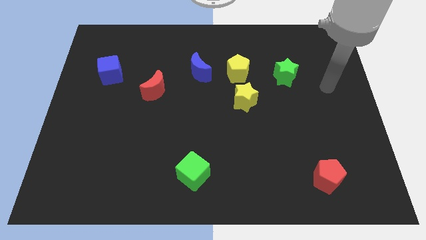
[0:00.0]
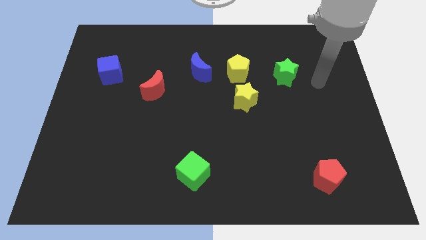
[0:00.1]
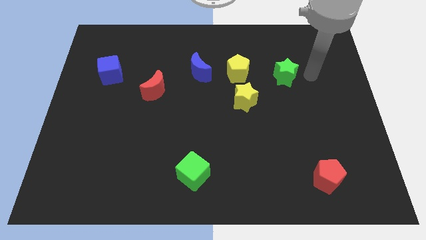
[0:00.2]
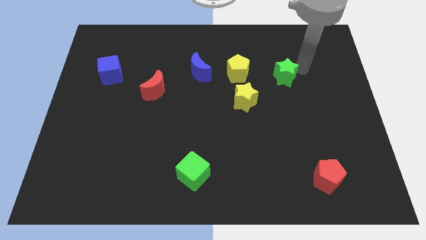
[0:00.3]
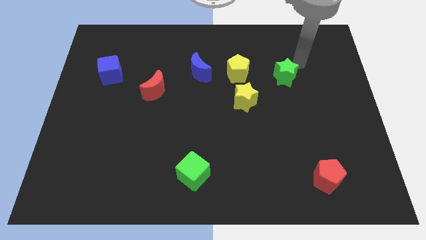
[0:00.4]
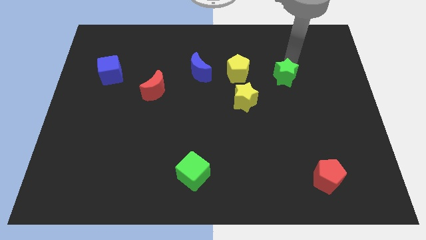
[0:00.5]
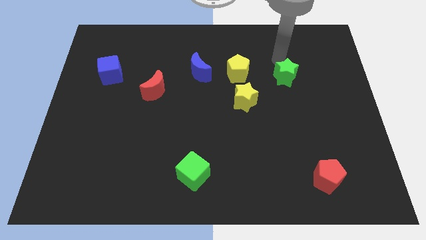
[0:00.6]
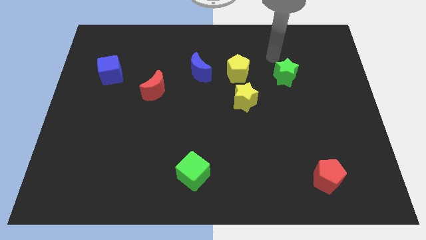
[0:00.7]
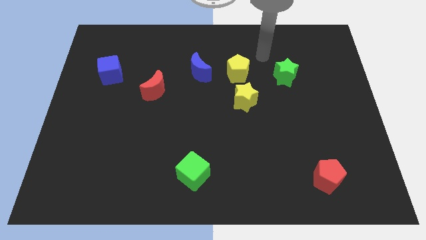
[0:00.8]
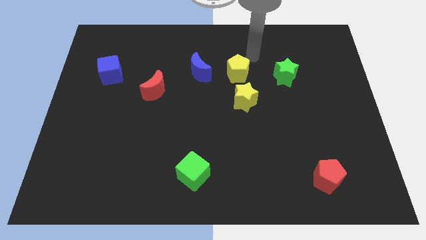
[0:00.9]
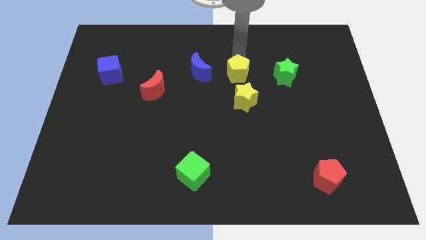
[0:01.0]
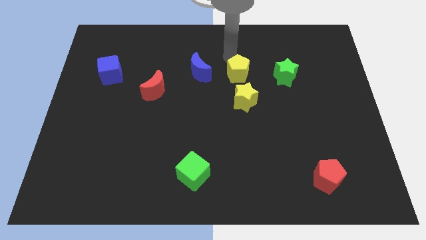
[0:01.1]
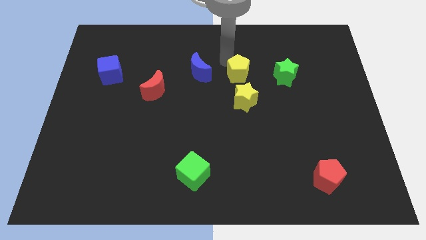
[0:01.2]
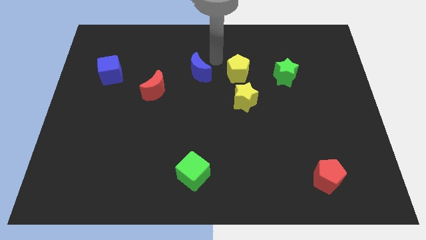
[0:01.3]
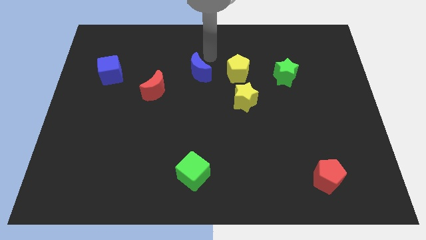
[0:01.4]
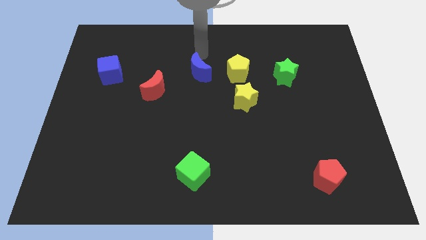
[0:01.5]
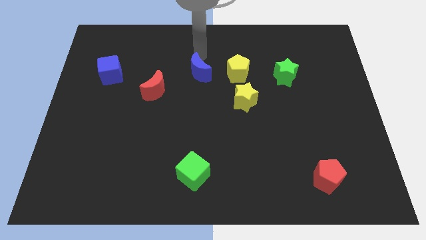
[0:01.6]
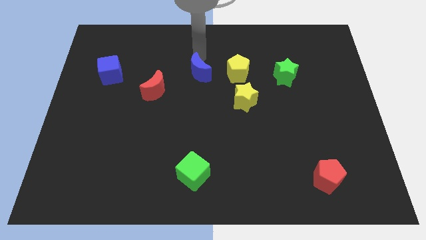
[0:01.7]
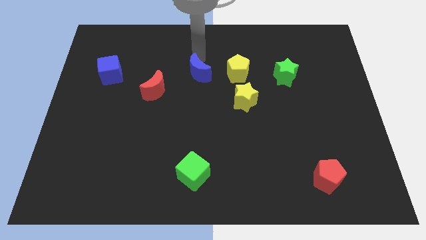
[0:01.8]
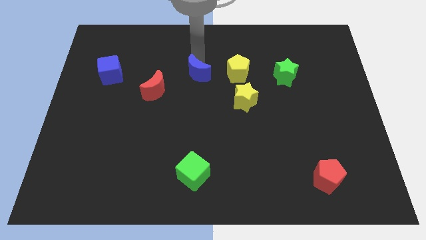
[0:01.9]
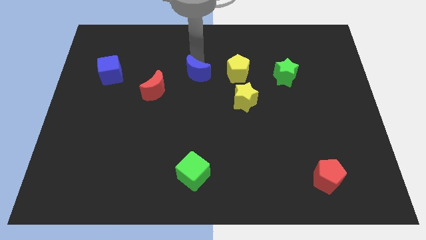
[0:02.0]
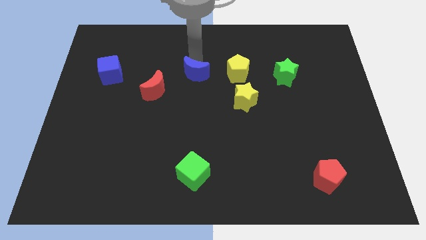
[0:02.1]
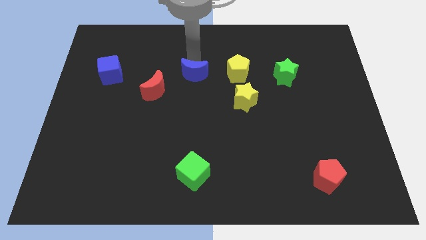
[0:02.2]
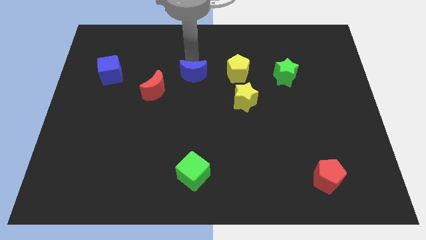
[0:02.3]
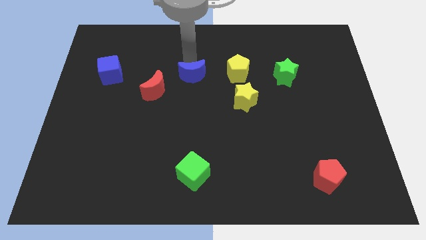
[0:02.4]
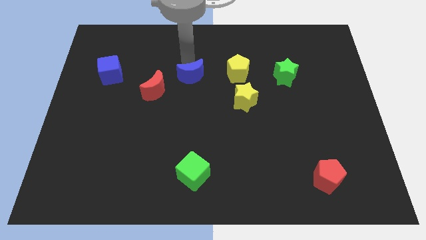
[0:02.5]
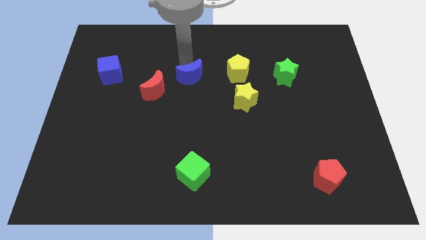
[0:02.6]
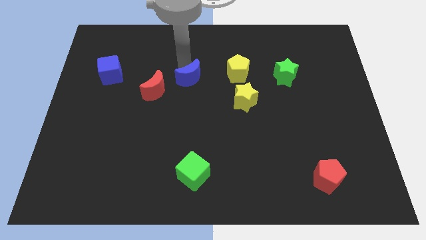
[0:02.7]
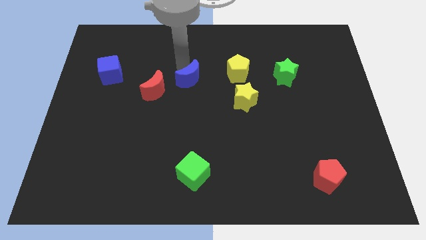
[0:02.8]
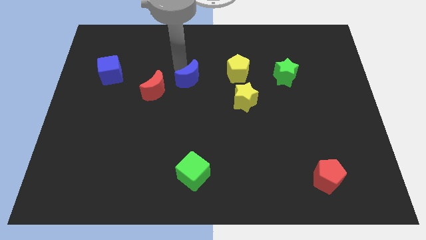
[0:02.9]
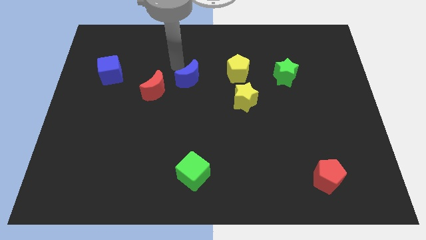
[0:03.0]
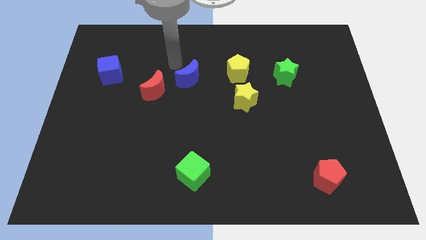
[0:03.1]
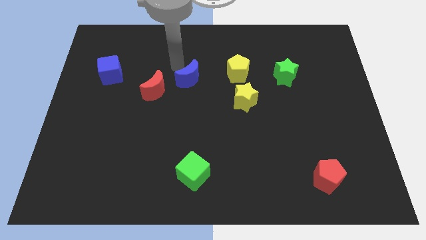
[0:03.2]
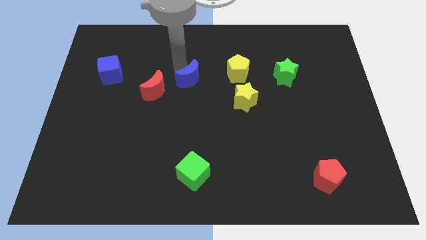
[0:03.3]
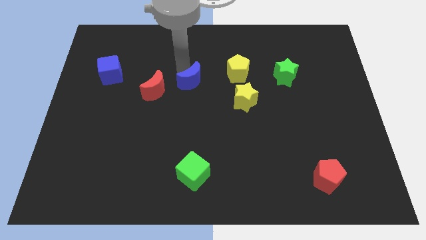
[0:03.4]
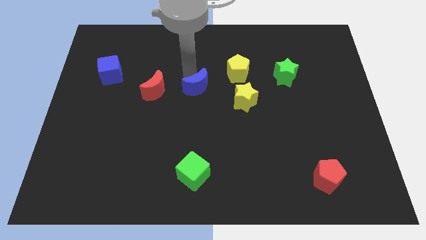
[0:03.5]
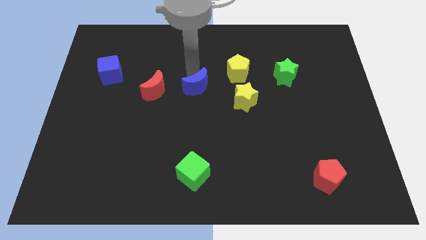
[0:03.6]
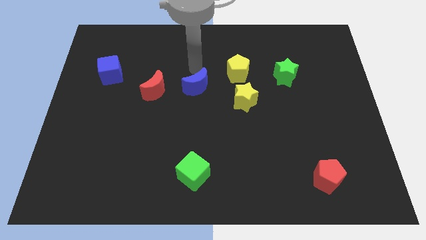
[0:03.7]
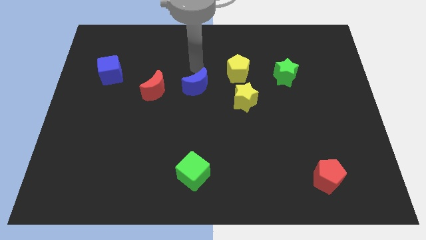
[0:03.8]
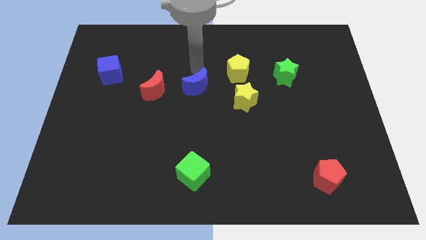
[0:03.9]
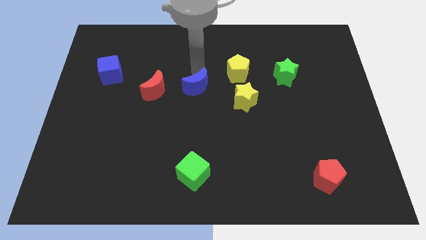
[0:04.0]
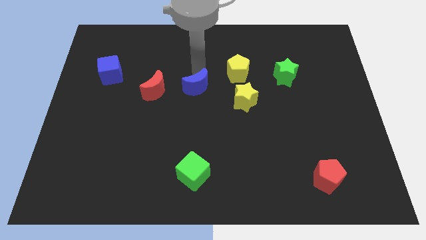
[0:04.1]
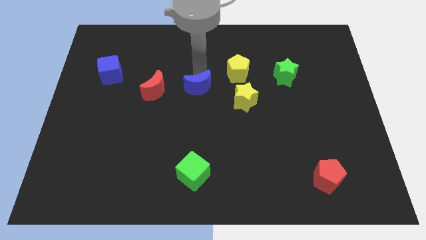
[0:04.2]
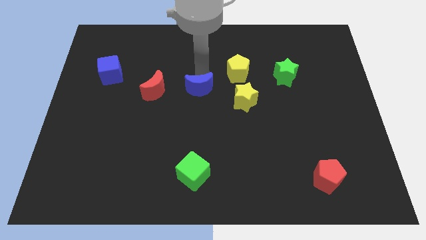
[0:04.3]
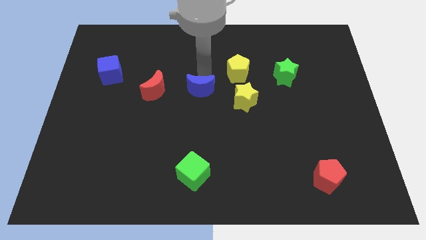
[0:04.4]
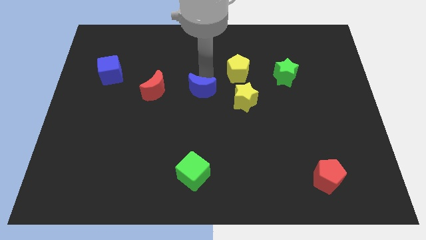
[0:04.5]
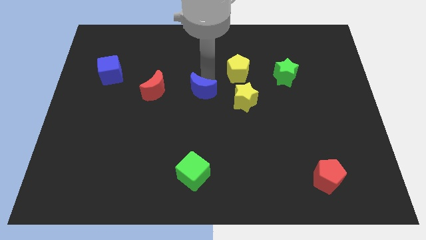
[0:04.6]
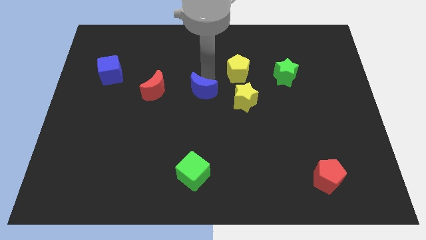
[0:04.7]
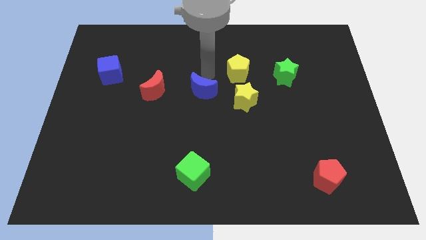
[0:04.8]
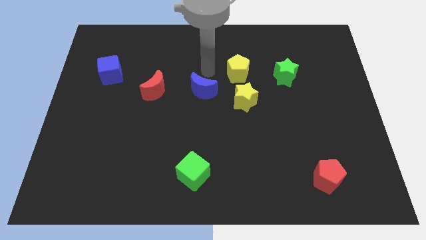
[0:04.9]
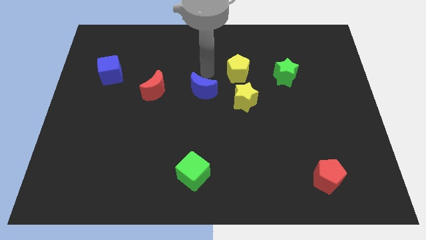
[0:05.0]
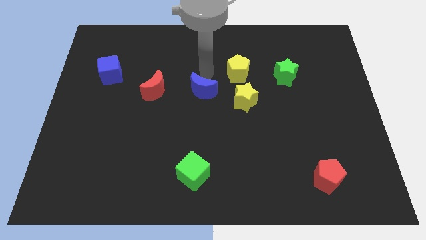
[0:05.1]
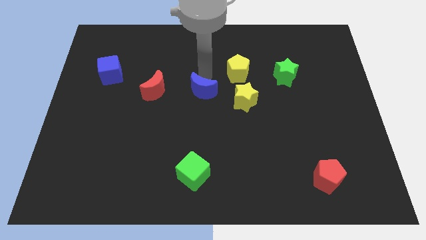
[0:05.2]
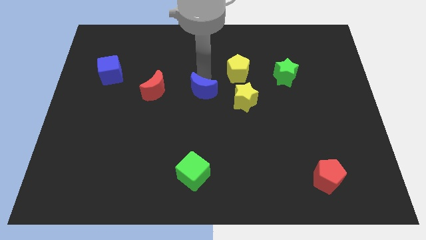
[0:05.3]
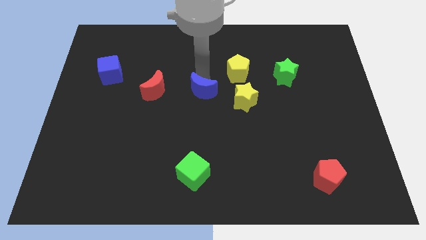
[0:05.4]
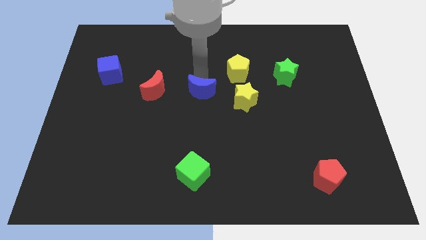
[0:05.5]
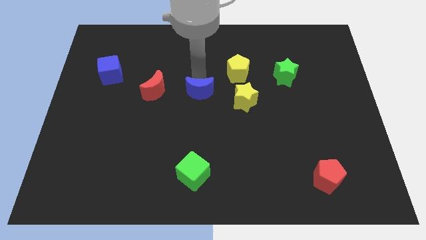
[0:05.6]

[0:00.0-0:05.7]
move the blue moon a little bit down

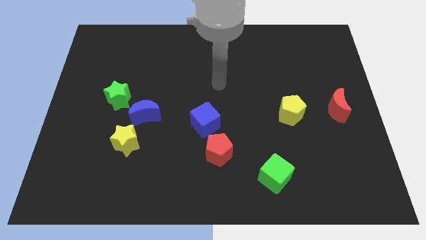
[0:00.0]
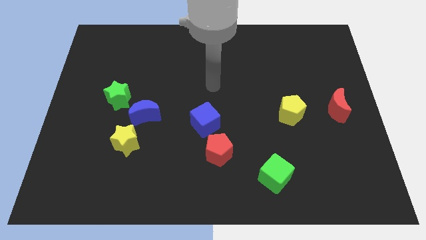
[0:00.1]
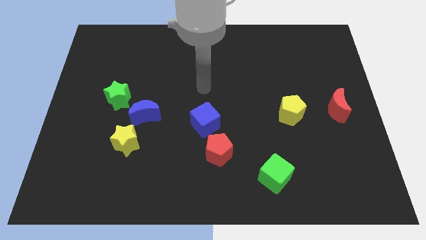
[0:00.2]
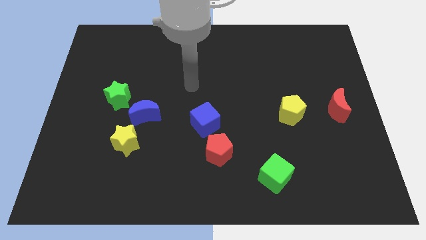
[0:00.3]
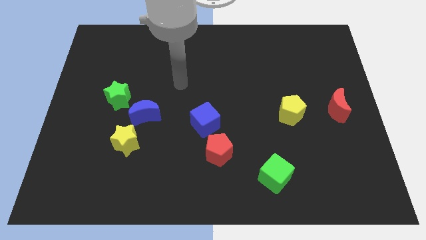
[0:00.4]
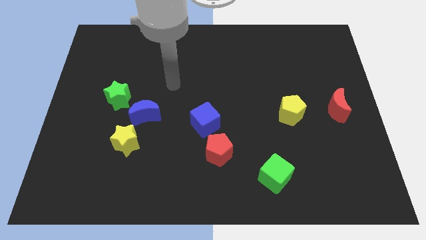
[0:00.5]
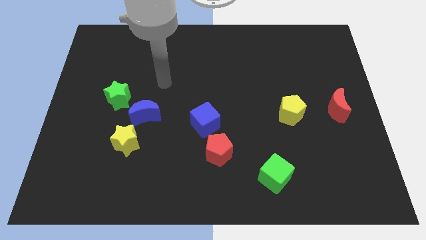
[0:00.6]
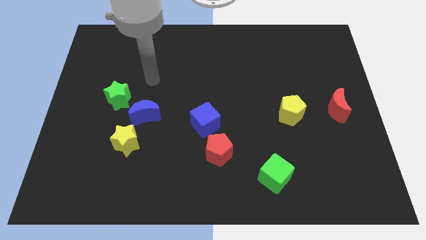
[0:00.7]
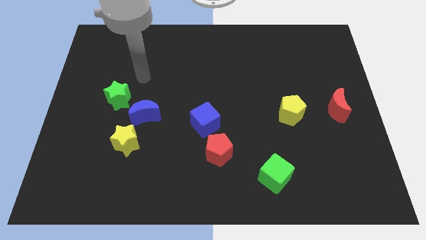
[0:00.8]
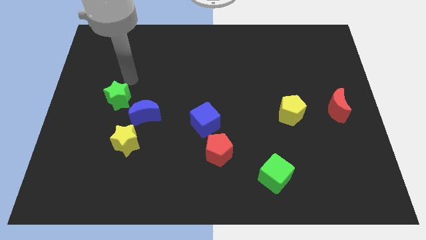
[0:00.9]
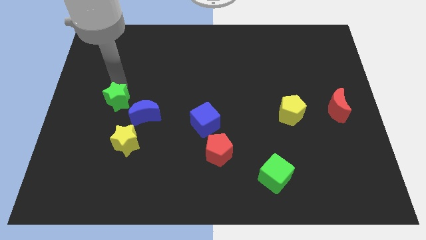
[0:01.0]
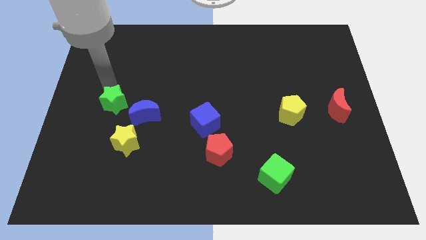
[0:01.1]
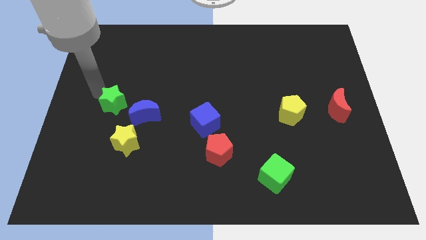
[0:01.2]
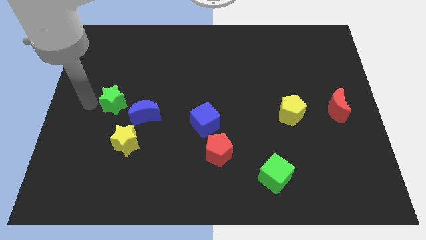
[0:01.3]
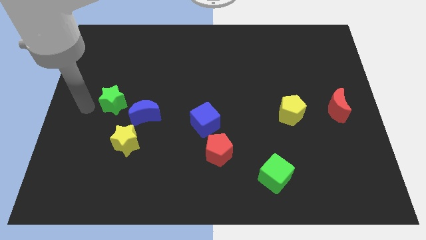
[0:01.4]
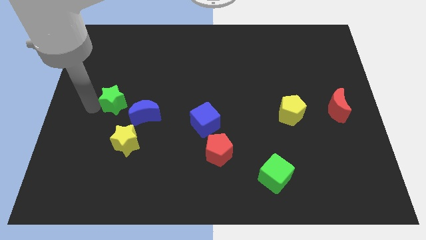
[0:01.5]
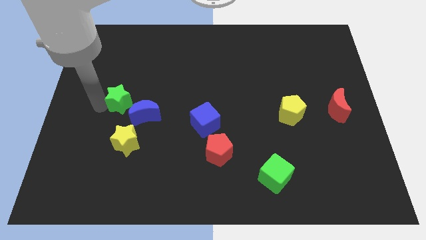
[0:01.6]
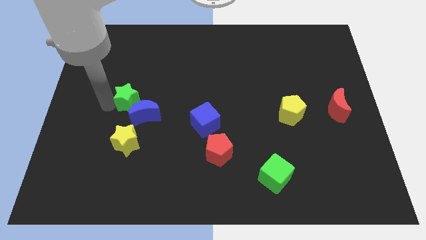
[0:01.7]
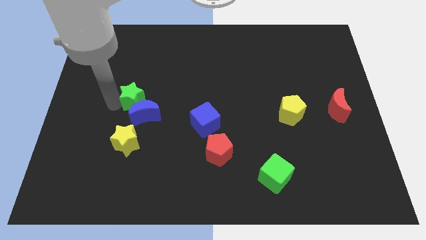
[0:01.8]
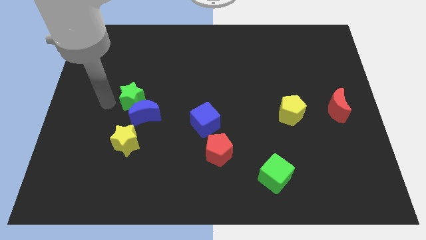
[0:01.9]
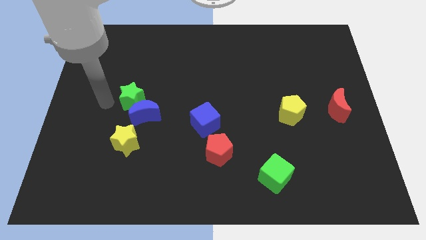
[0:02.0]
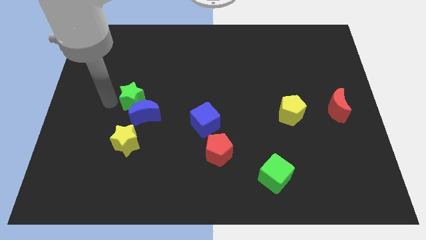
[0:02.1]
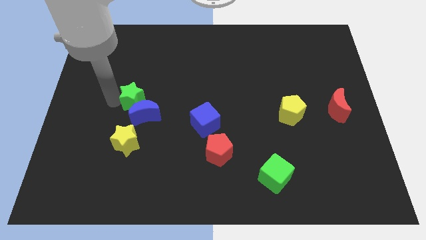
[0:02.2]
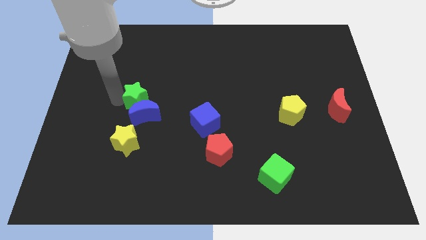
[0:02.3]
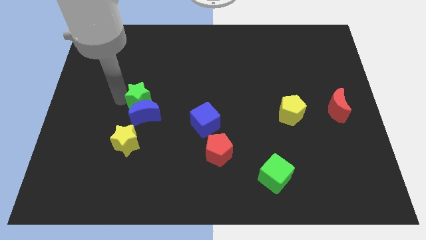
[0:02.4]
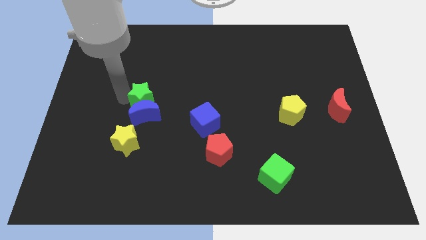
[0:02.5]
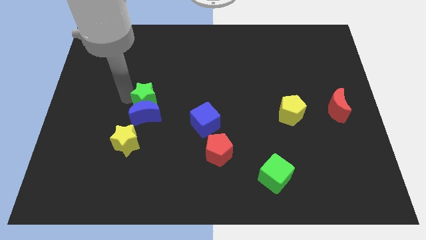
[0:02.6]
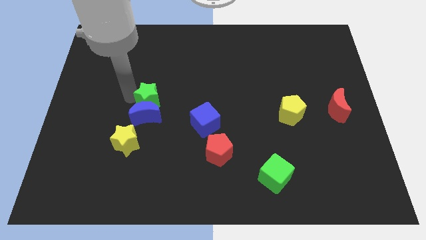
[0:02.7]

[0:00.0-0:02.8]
slide the green star to the right a little bit
